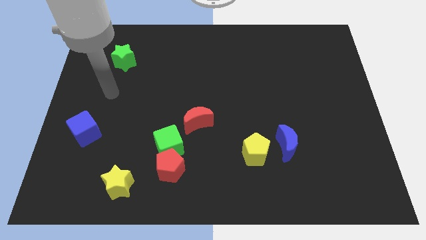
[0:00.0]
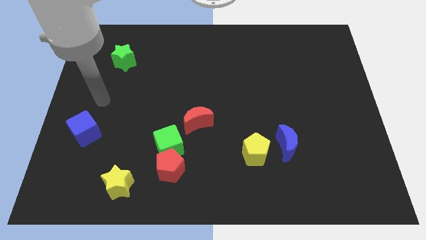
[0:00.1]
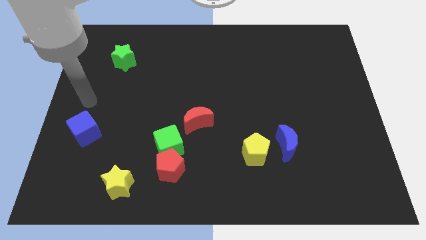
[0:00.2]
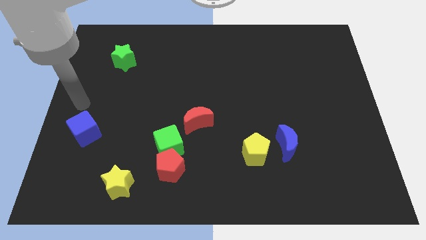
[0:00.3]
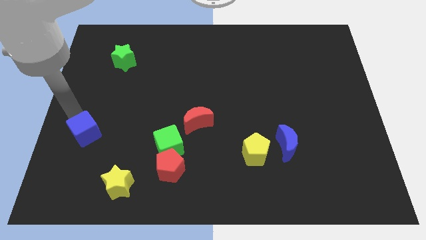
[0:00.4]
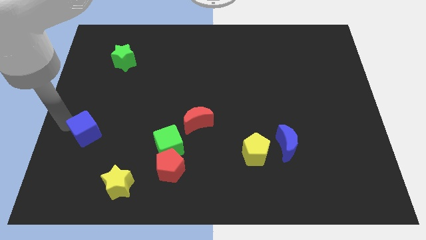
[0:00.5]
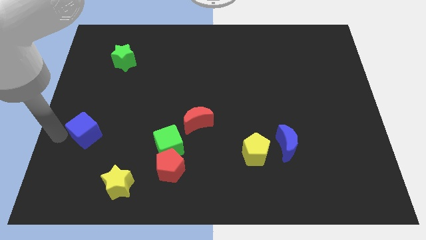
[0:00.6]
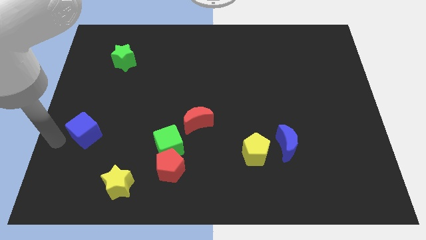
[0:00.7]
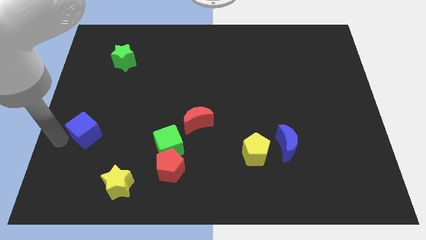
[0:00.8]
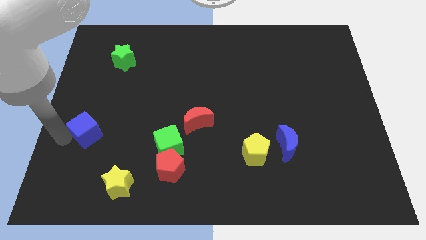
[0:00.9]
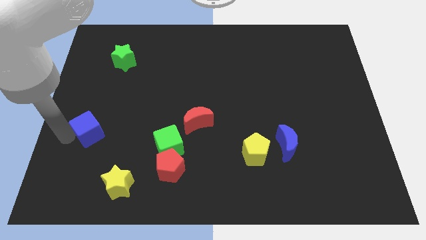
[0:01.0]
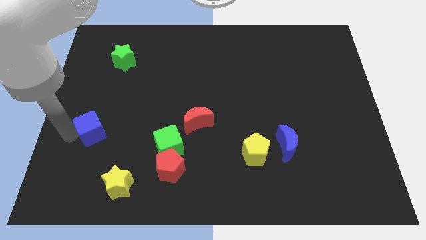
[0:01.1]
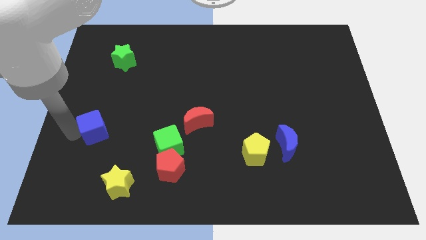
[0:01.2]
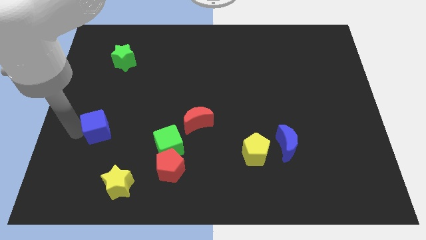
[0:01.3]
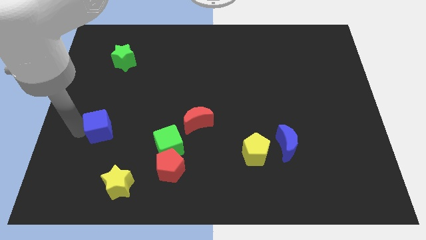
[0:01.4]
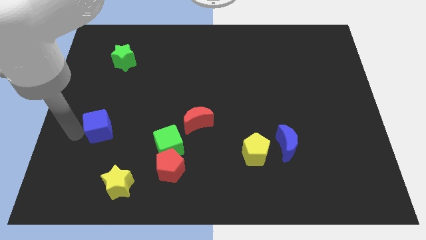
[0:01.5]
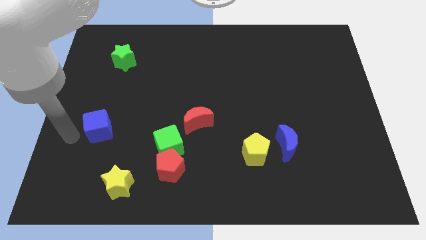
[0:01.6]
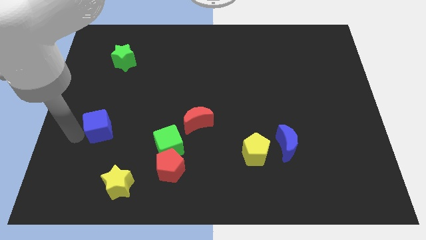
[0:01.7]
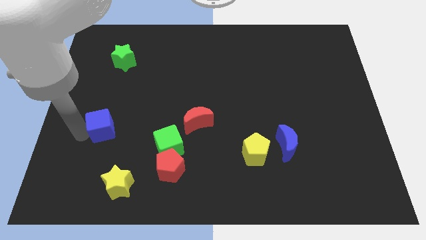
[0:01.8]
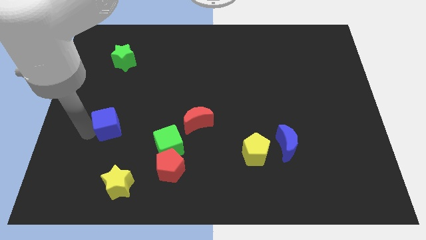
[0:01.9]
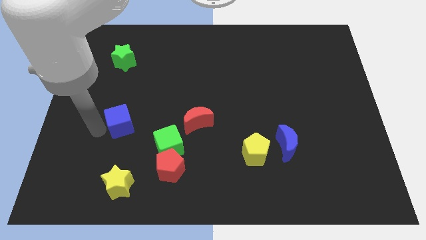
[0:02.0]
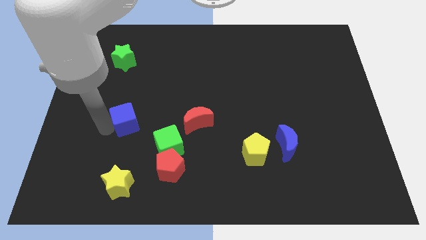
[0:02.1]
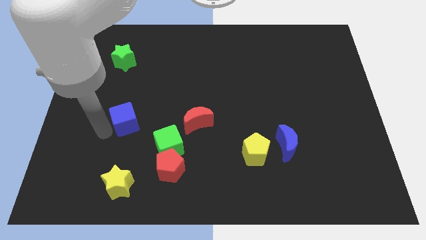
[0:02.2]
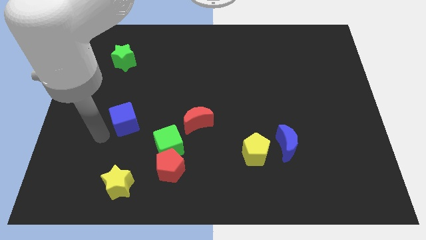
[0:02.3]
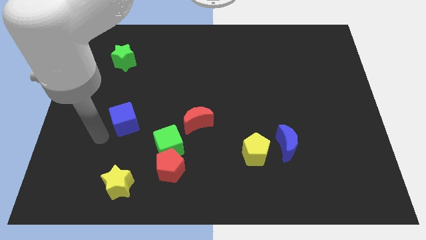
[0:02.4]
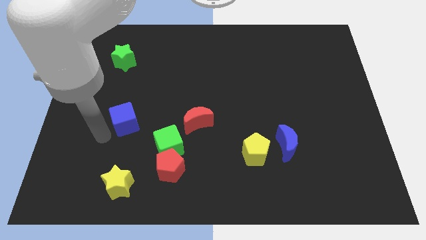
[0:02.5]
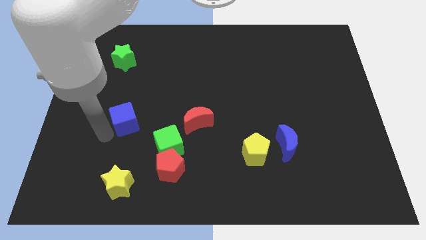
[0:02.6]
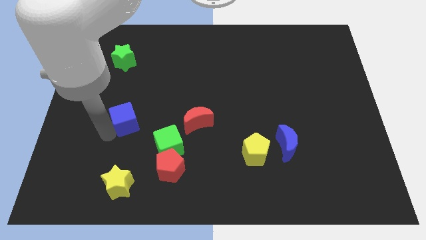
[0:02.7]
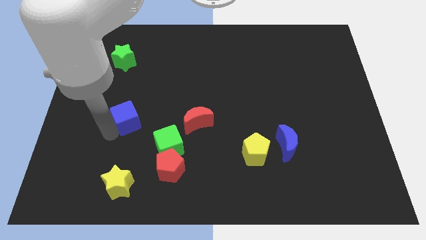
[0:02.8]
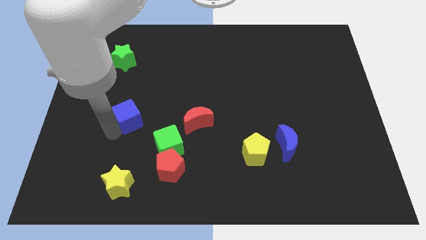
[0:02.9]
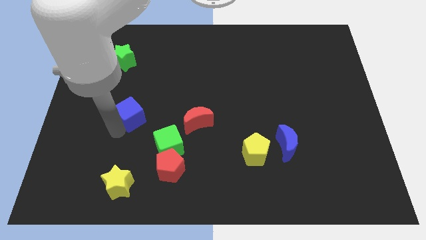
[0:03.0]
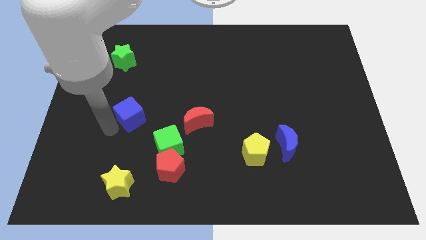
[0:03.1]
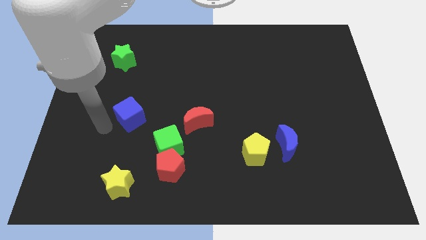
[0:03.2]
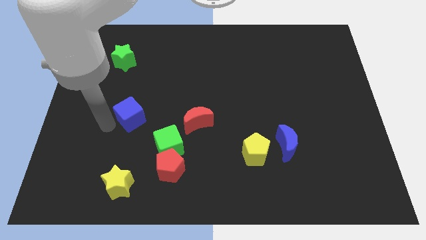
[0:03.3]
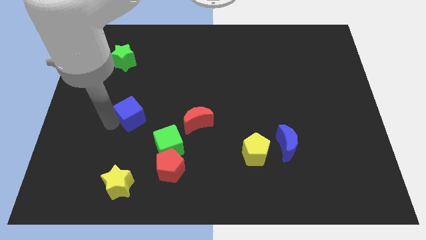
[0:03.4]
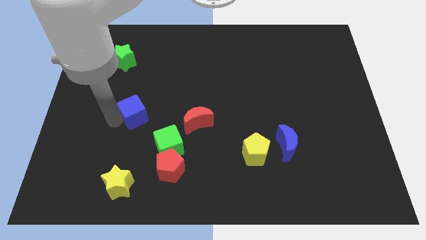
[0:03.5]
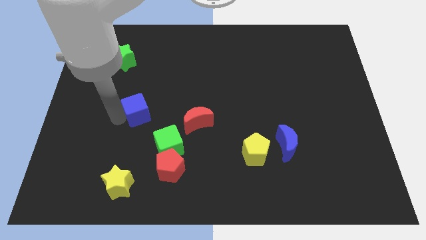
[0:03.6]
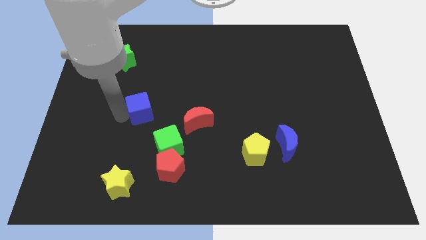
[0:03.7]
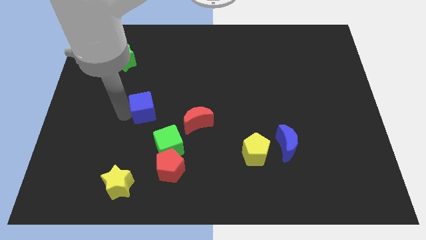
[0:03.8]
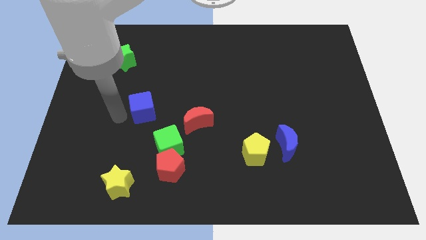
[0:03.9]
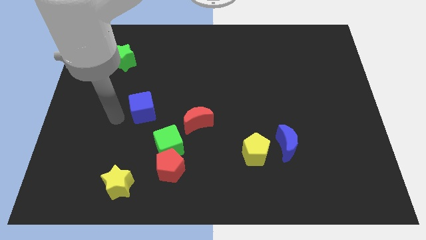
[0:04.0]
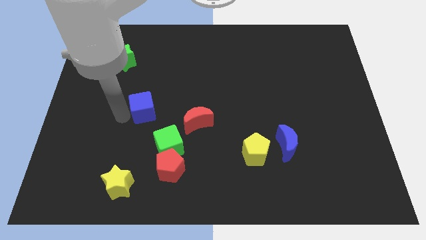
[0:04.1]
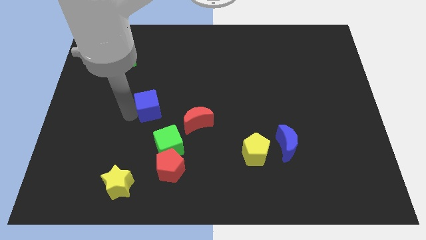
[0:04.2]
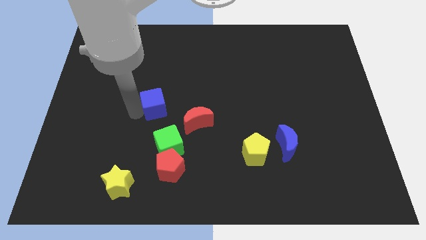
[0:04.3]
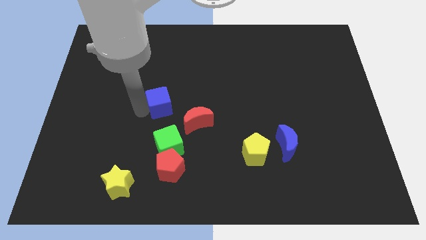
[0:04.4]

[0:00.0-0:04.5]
push the blue cube to the center of the board

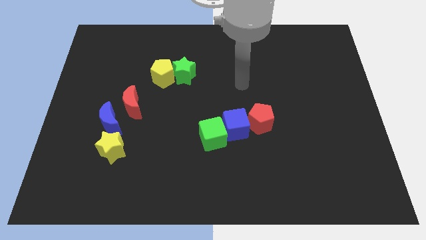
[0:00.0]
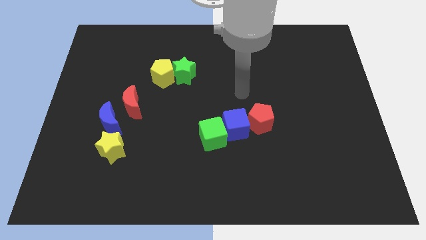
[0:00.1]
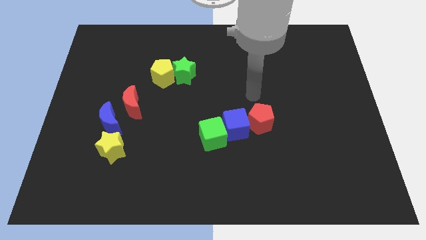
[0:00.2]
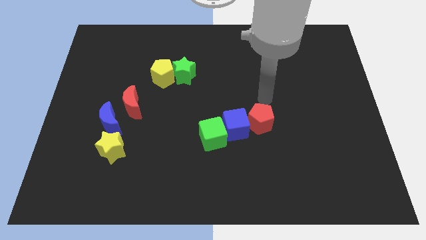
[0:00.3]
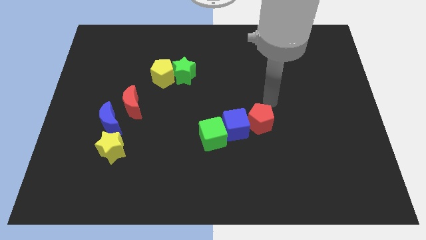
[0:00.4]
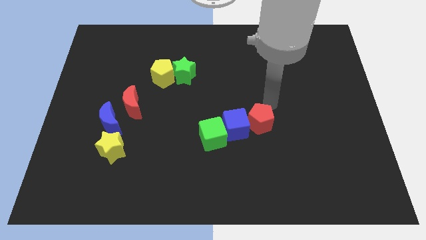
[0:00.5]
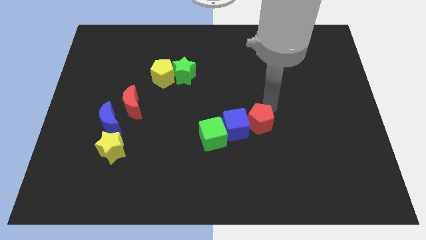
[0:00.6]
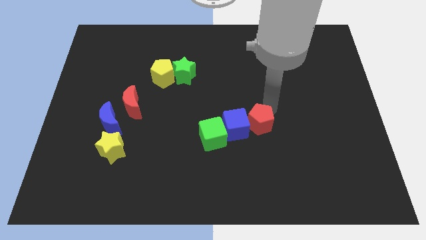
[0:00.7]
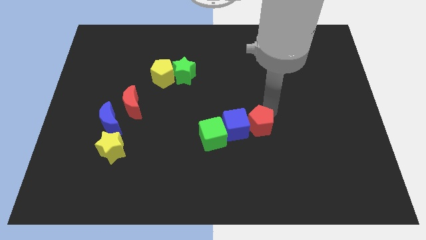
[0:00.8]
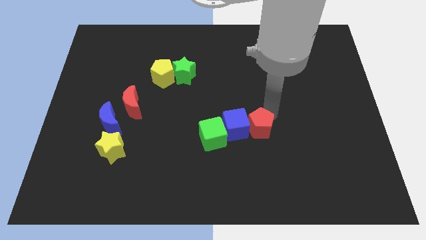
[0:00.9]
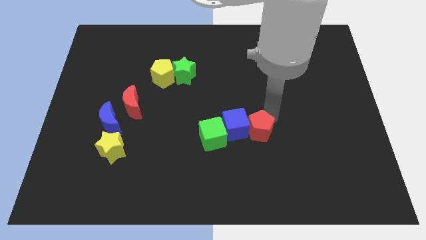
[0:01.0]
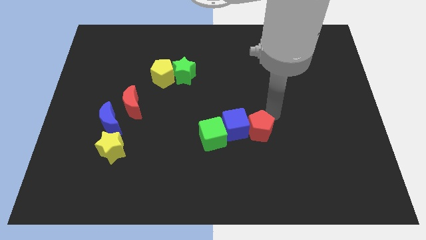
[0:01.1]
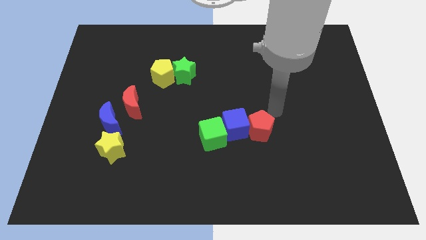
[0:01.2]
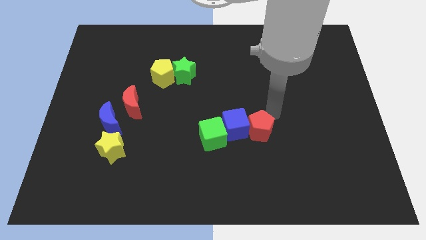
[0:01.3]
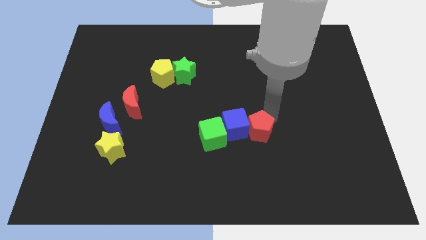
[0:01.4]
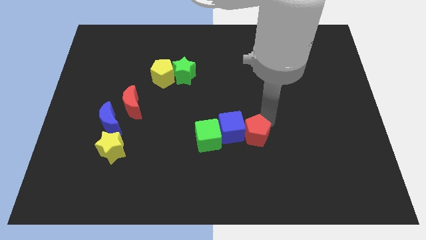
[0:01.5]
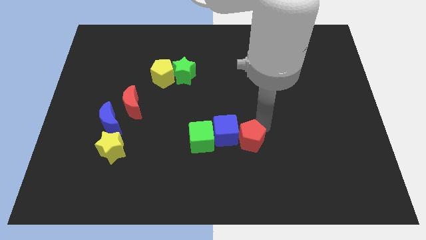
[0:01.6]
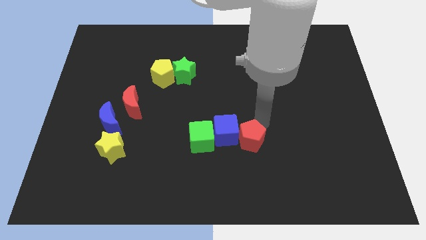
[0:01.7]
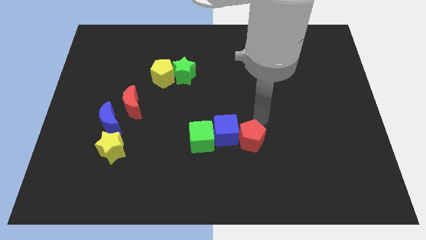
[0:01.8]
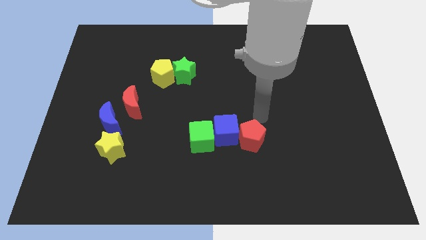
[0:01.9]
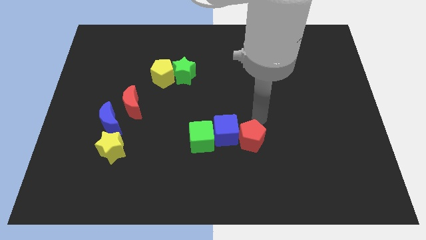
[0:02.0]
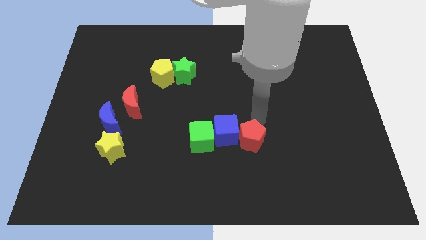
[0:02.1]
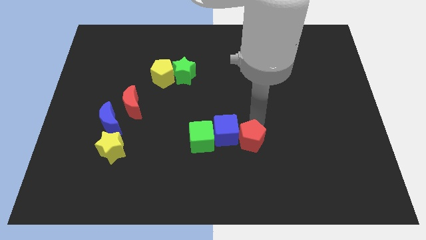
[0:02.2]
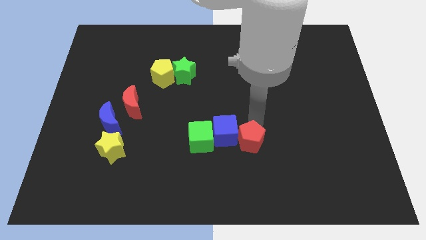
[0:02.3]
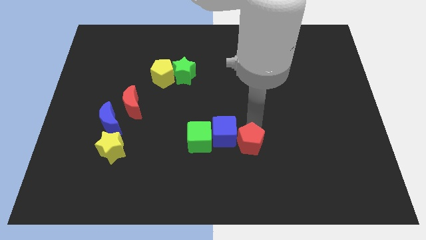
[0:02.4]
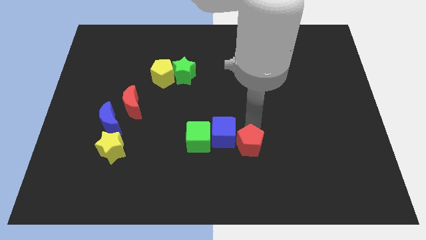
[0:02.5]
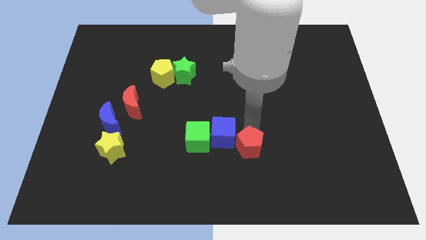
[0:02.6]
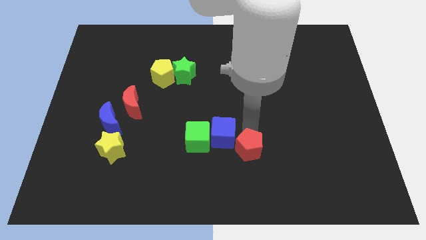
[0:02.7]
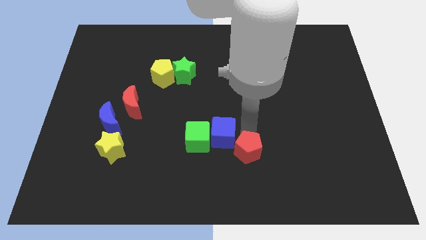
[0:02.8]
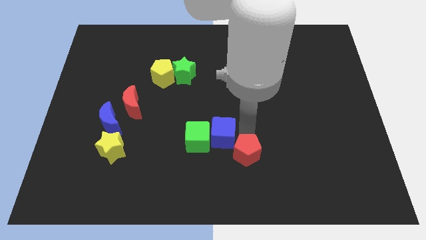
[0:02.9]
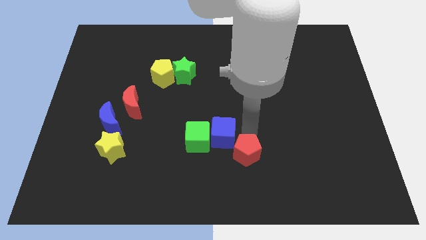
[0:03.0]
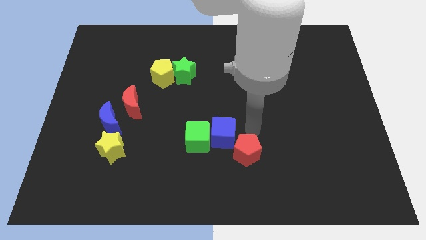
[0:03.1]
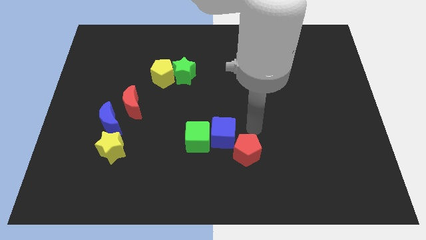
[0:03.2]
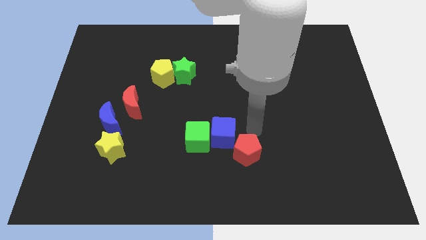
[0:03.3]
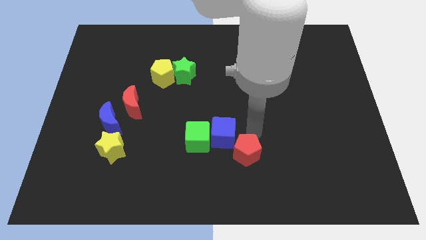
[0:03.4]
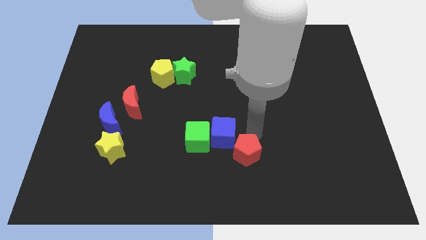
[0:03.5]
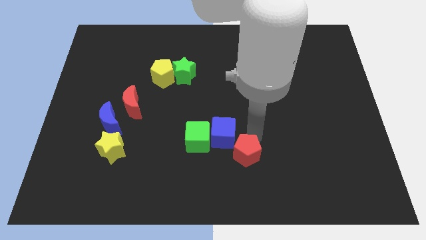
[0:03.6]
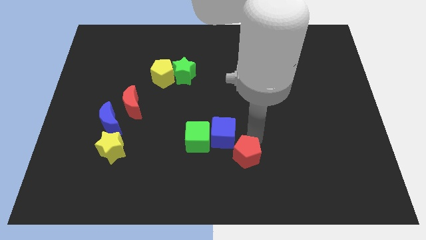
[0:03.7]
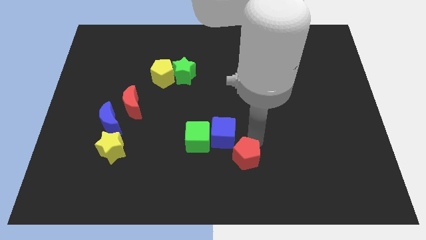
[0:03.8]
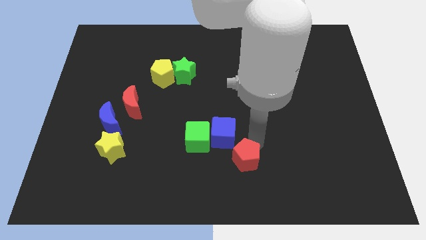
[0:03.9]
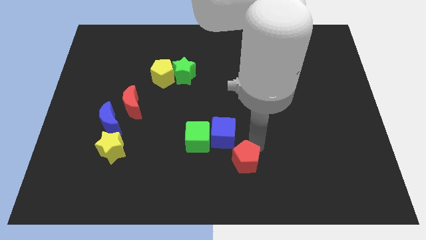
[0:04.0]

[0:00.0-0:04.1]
put the red pentagon to the bottom side
